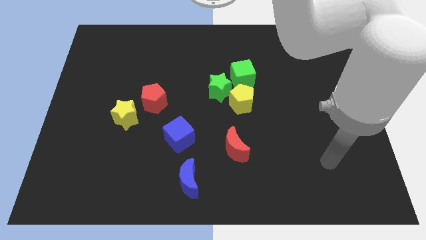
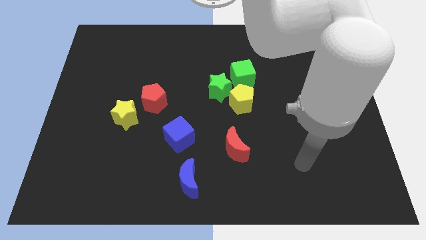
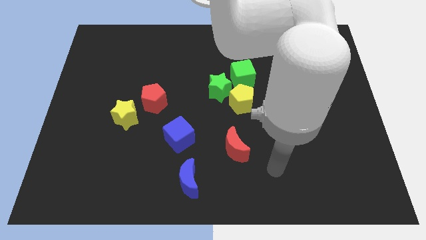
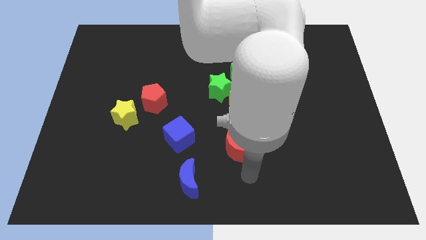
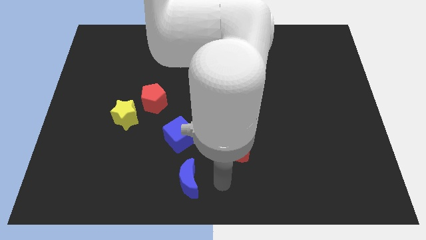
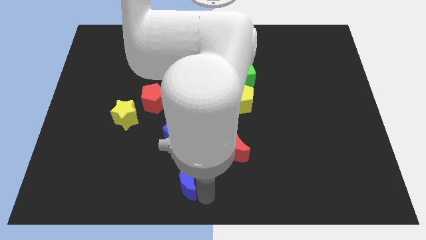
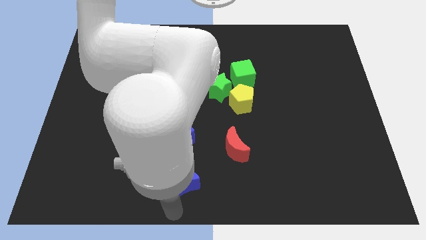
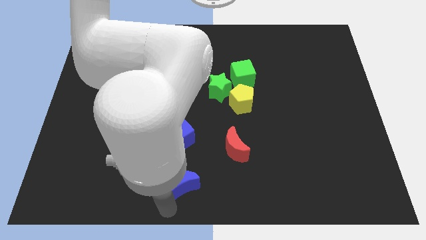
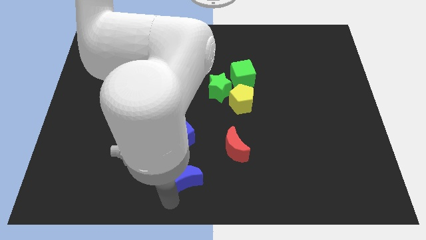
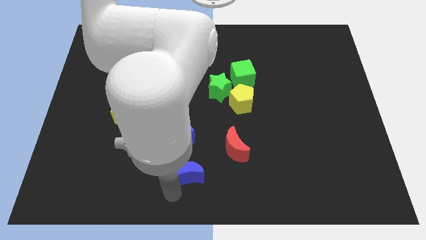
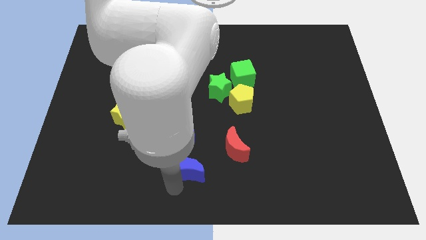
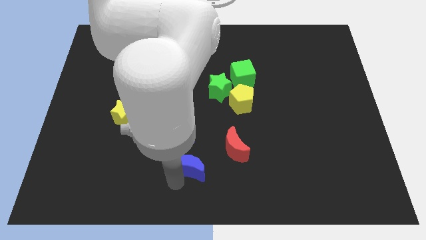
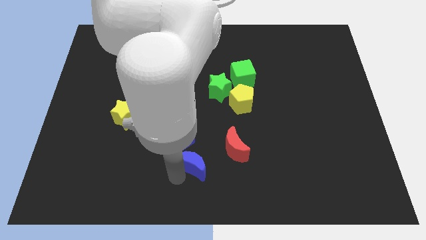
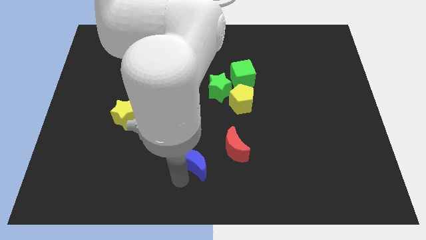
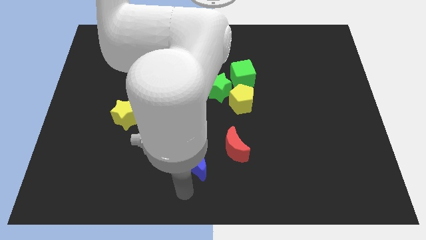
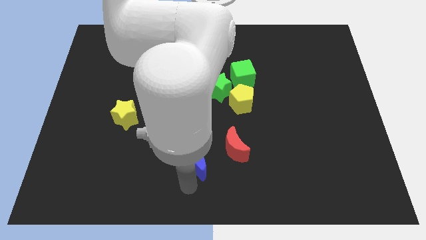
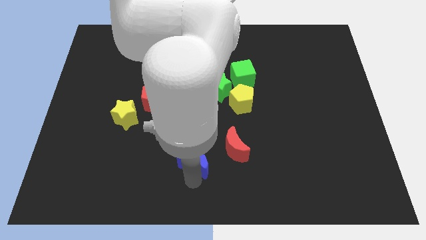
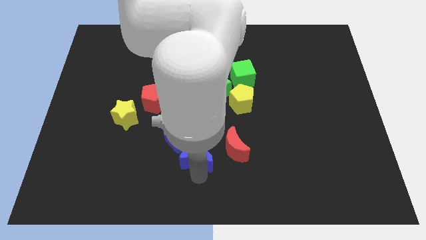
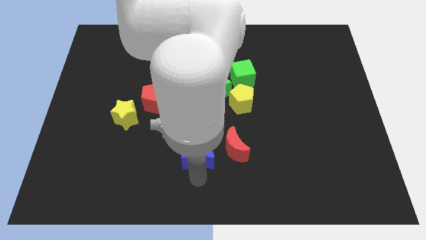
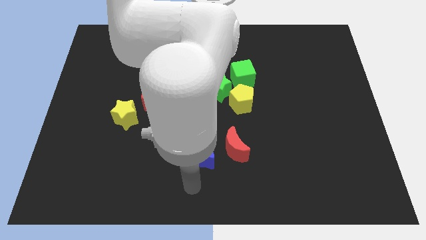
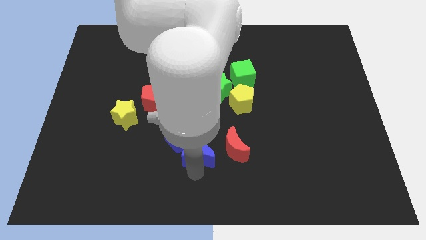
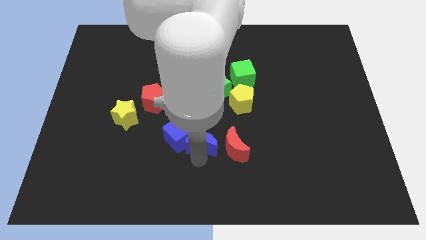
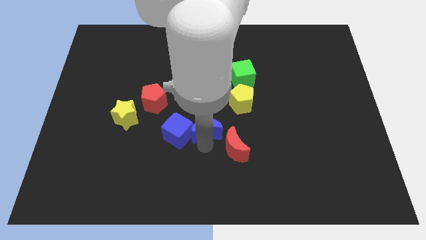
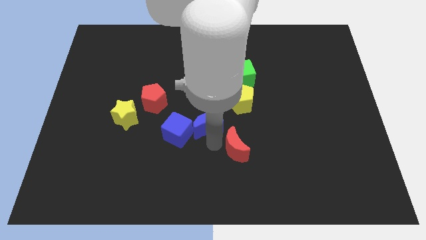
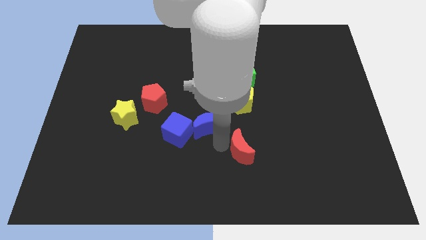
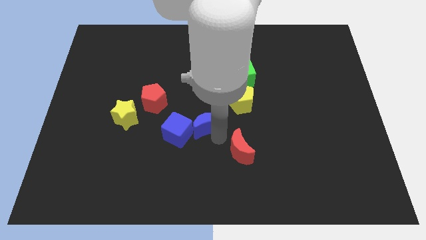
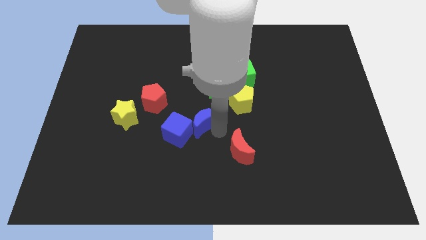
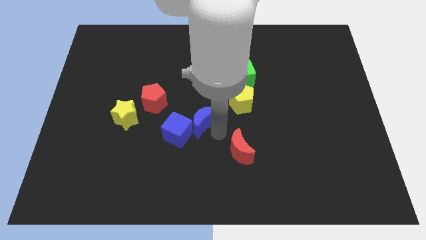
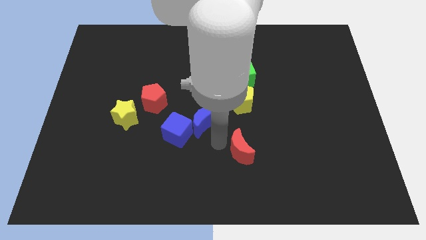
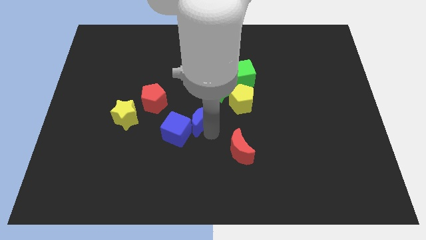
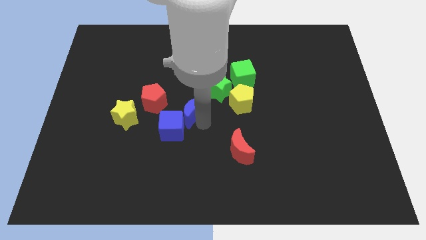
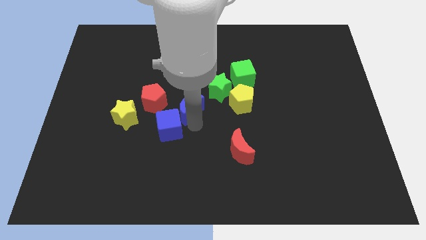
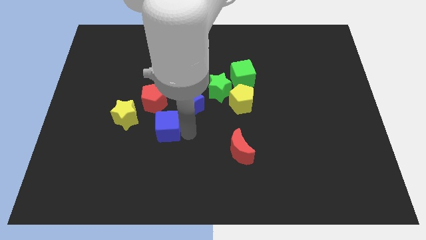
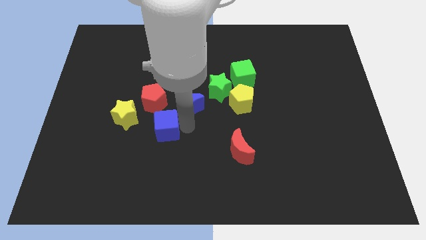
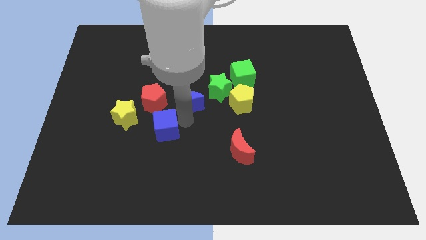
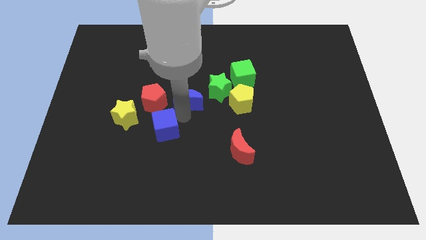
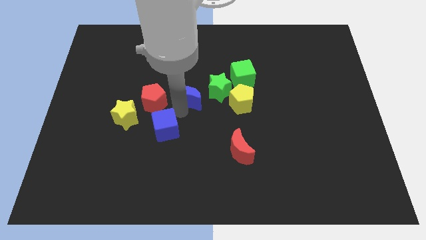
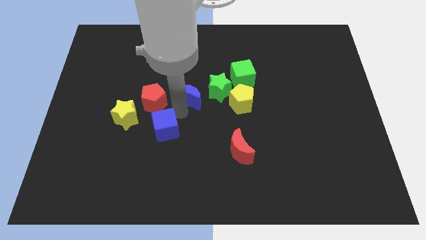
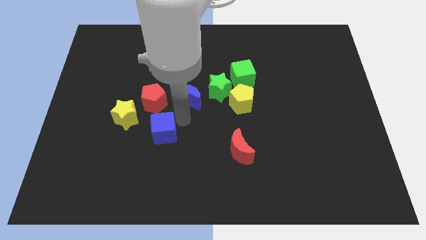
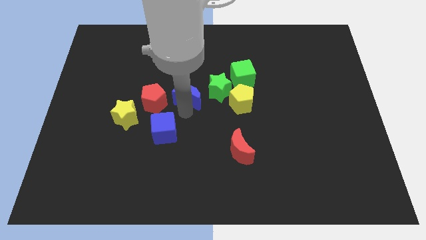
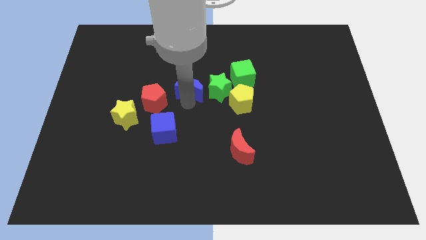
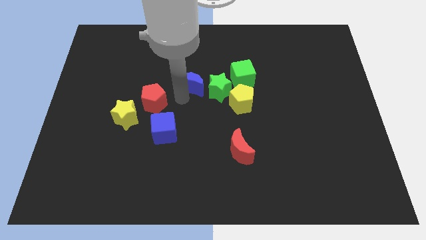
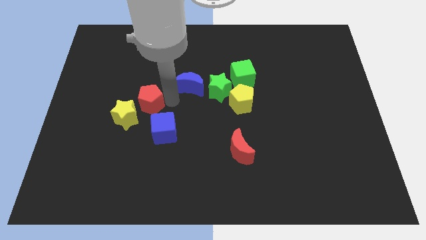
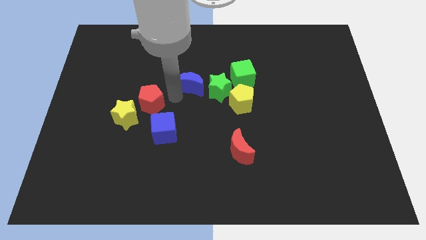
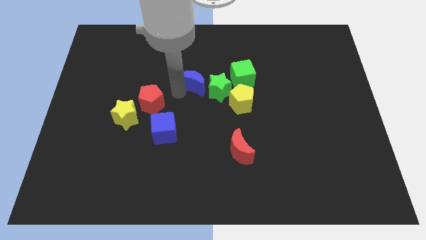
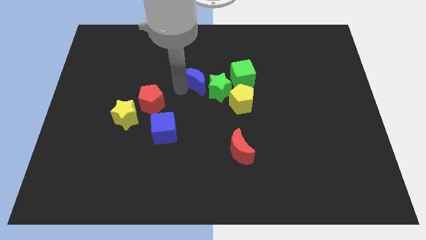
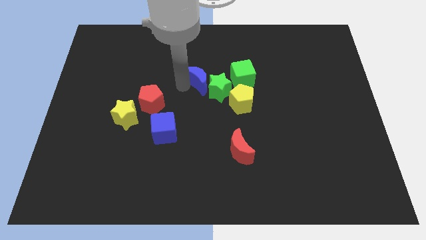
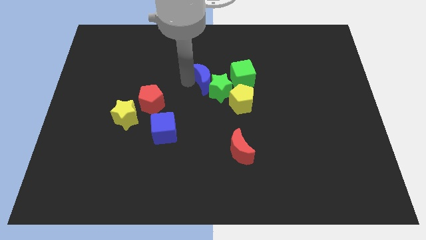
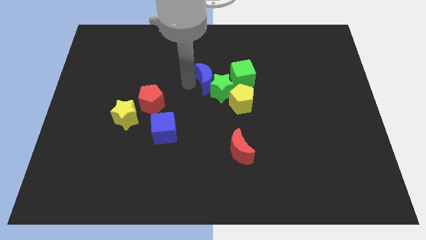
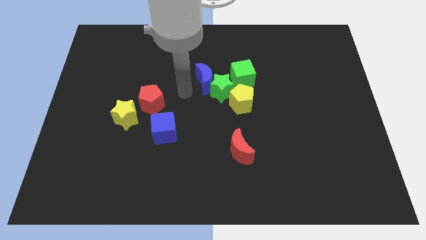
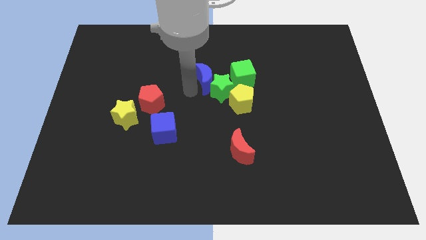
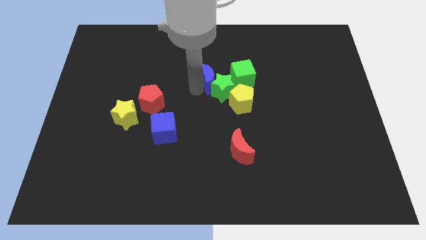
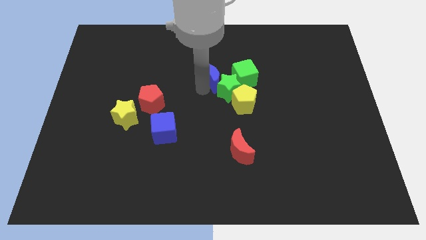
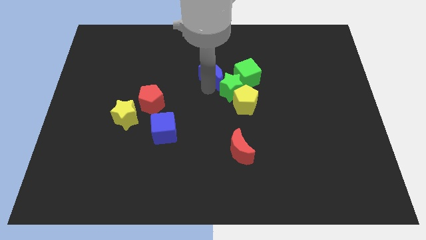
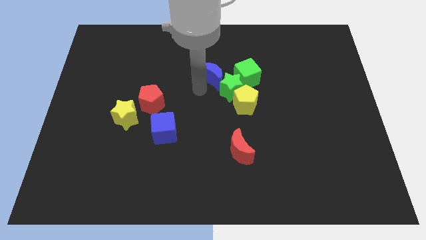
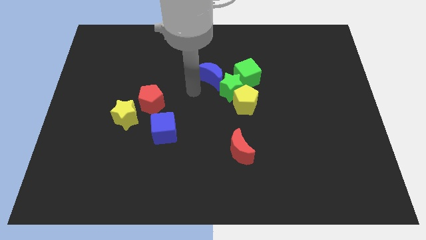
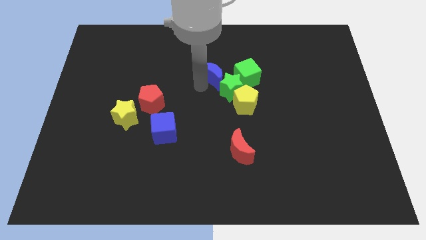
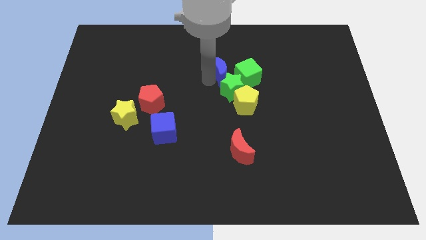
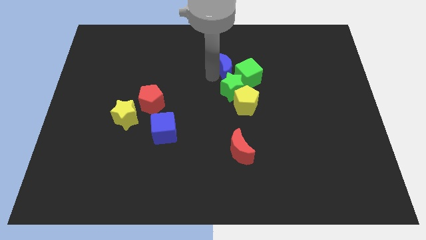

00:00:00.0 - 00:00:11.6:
push the blue moon to the top side of the yellow pentagon

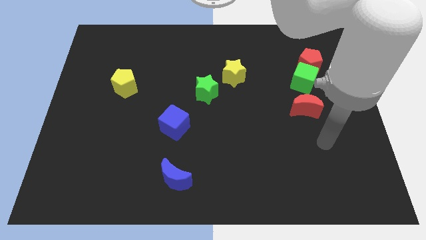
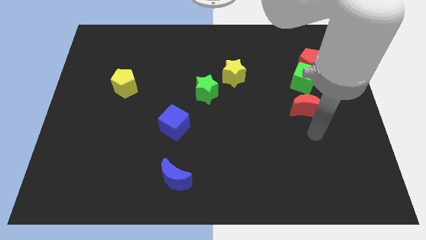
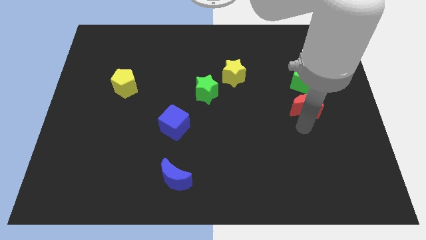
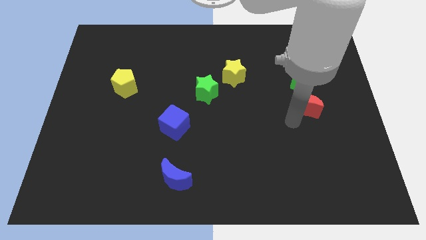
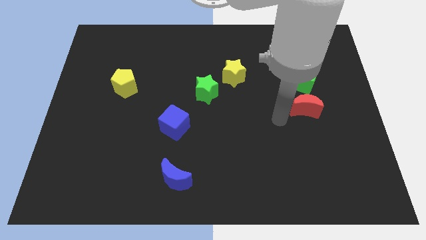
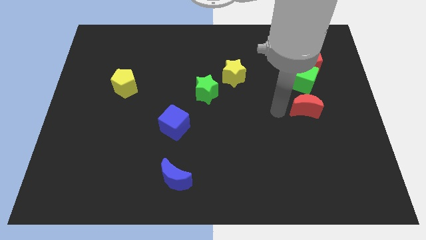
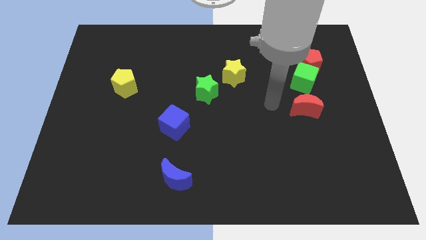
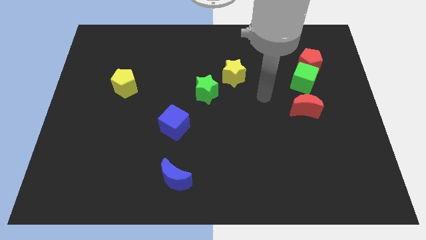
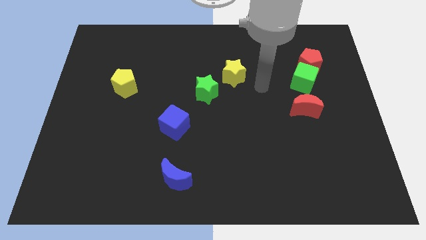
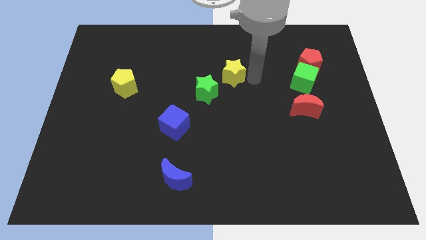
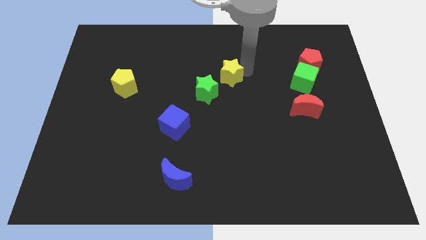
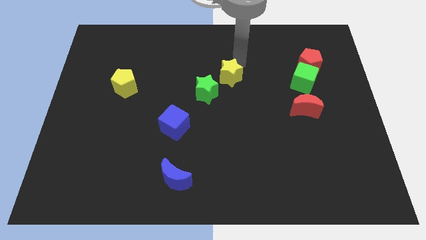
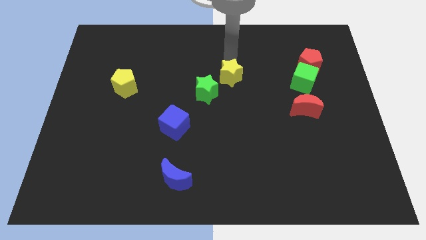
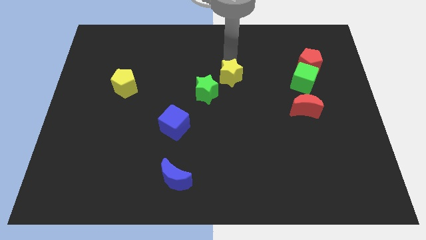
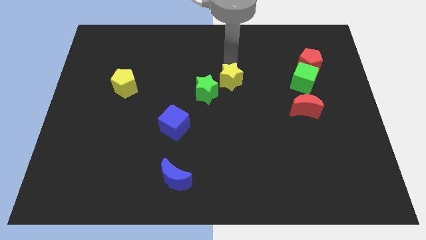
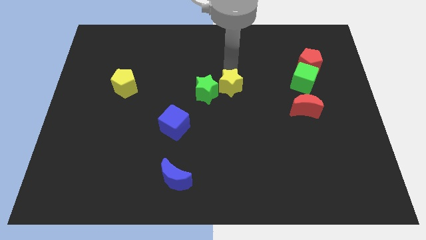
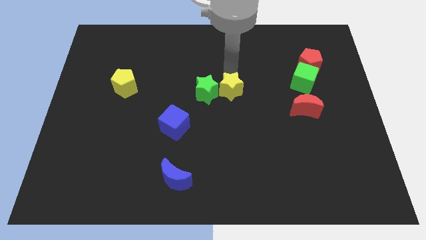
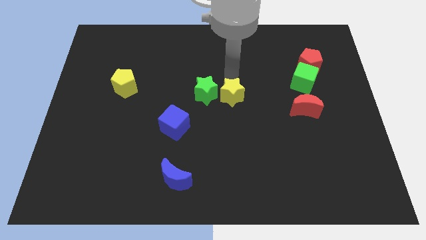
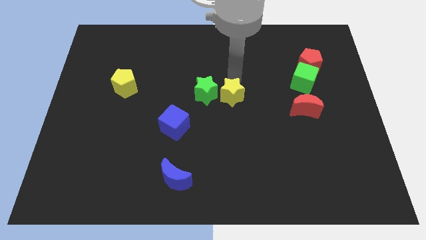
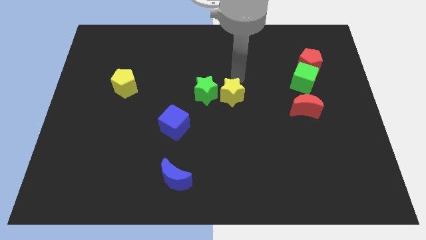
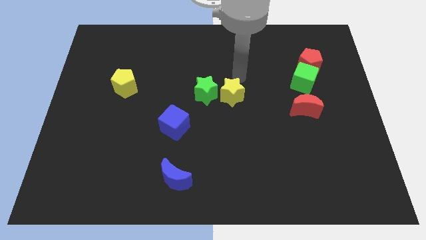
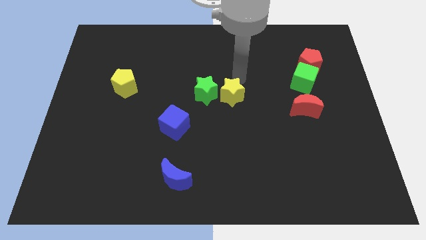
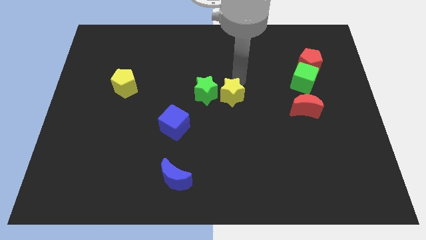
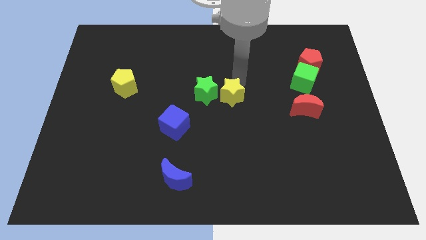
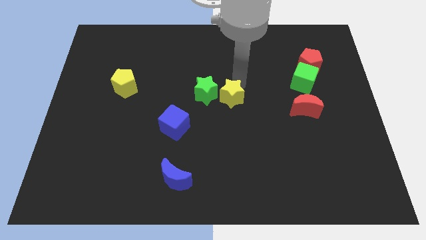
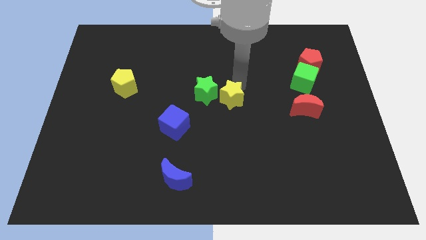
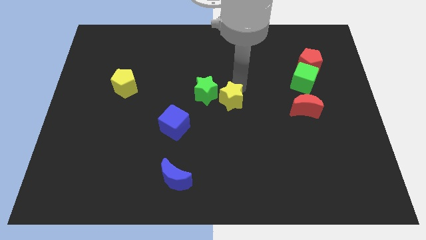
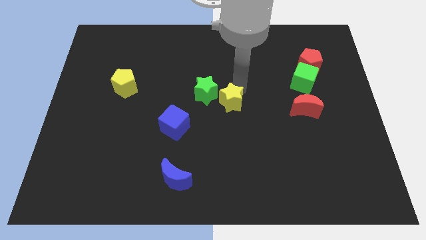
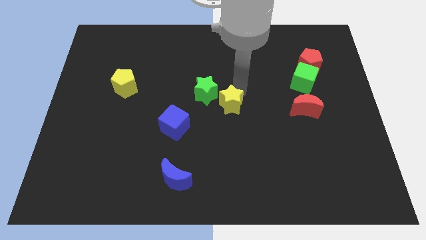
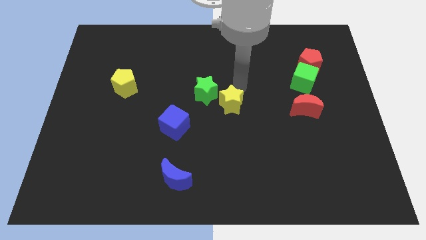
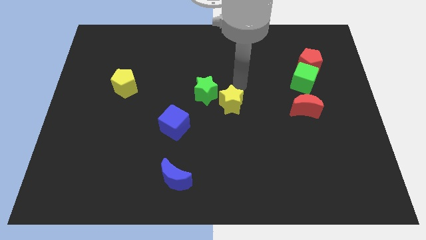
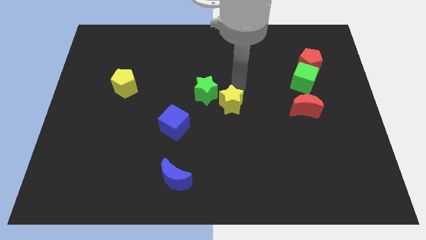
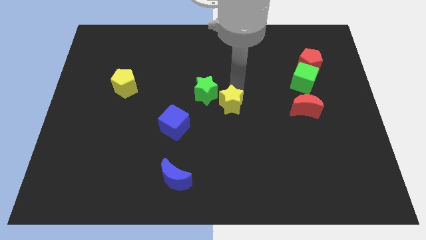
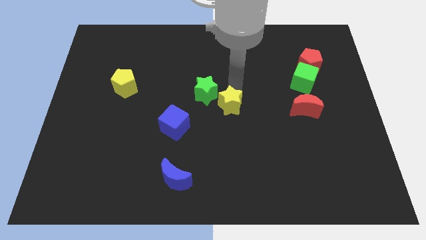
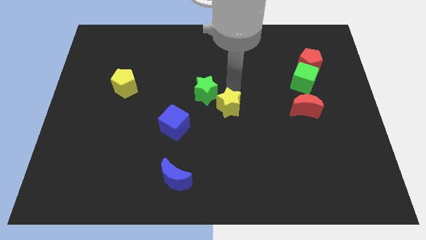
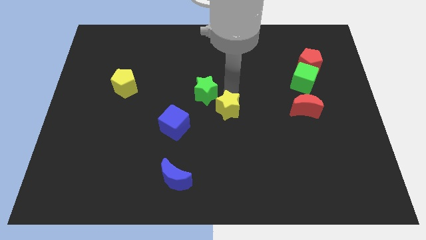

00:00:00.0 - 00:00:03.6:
slide the yellow star right of the blue cube
